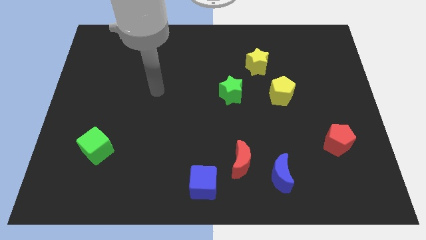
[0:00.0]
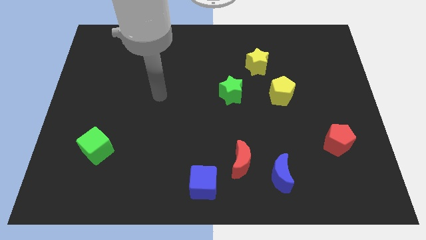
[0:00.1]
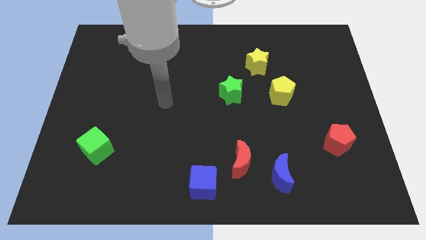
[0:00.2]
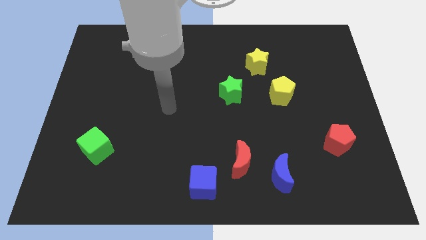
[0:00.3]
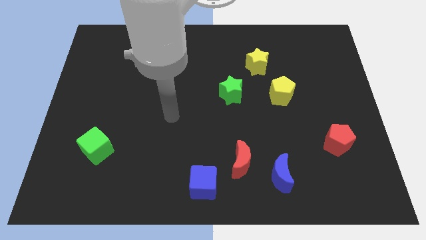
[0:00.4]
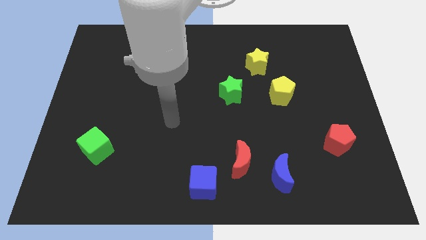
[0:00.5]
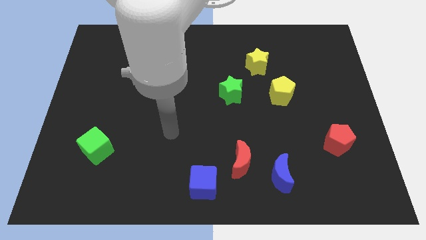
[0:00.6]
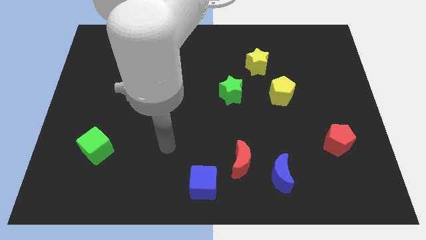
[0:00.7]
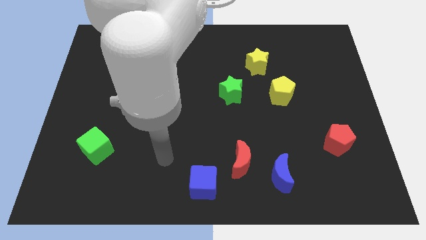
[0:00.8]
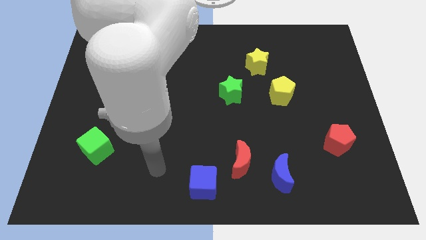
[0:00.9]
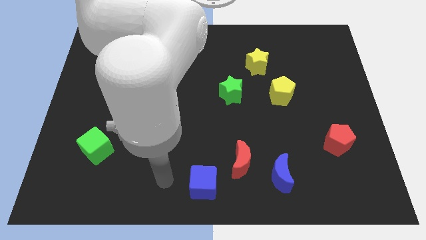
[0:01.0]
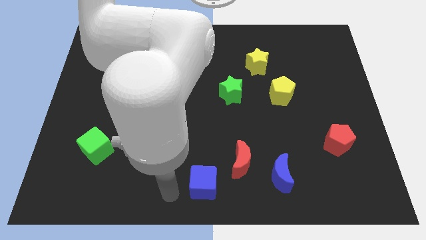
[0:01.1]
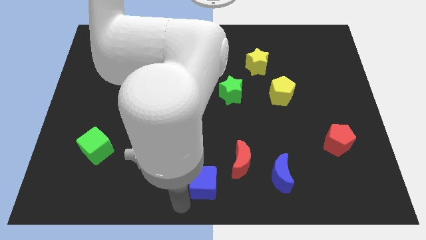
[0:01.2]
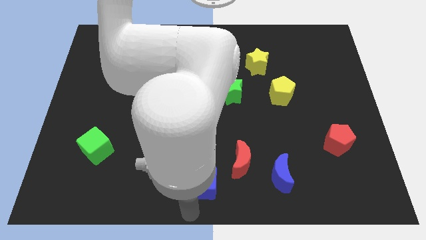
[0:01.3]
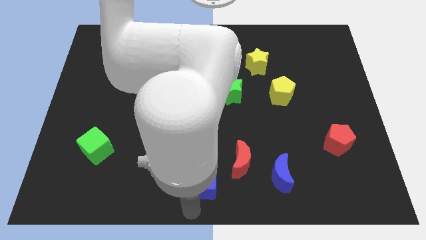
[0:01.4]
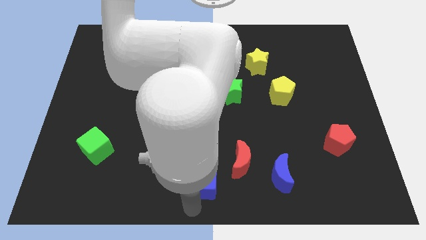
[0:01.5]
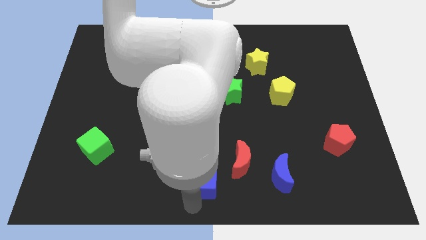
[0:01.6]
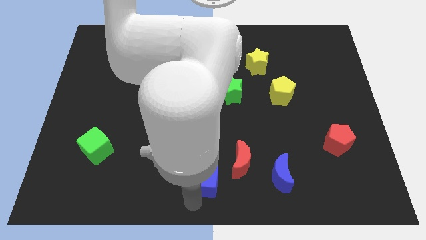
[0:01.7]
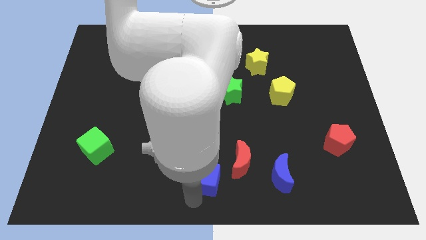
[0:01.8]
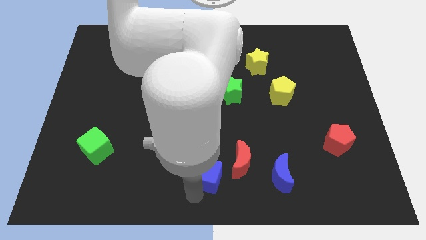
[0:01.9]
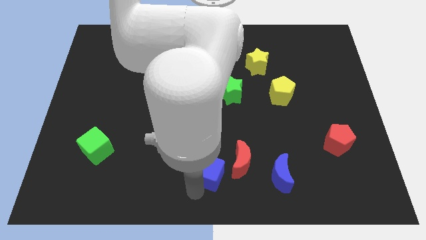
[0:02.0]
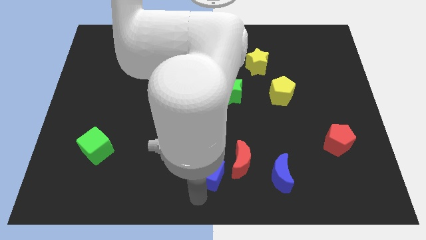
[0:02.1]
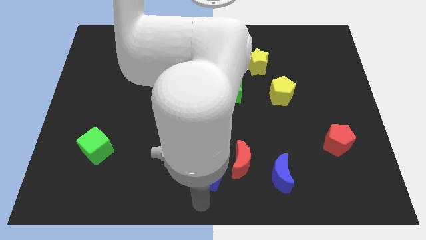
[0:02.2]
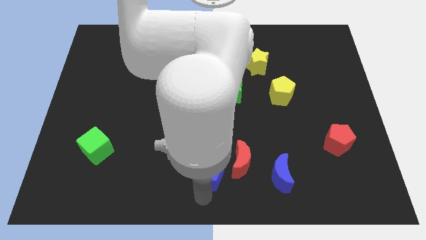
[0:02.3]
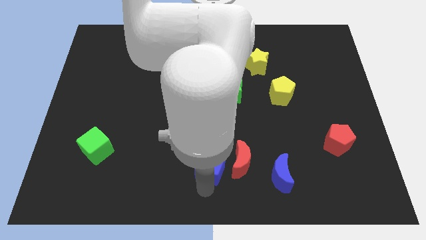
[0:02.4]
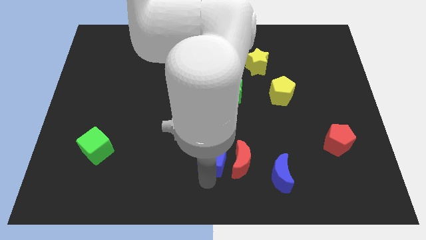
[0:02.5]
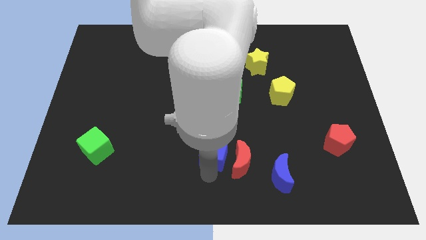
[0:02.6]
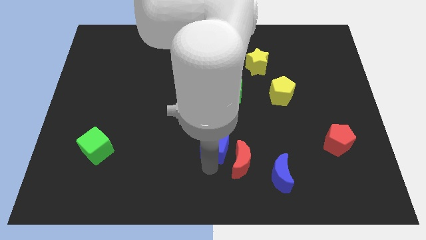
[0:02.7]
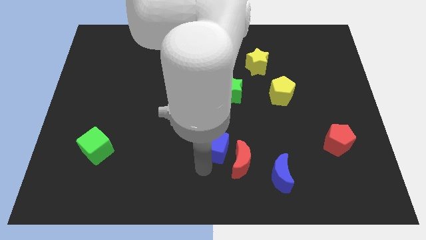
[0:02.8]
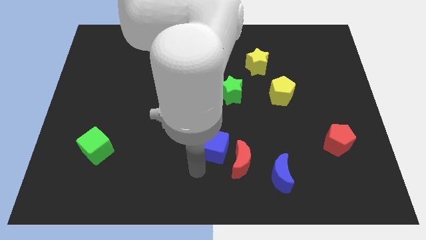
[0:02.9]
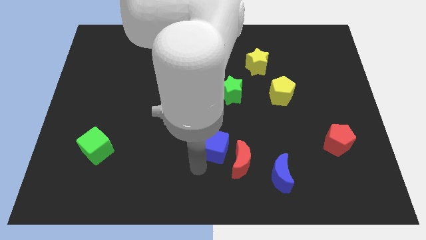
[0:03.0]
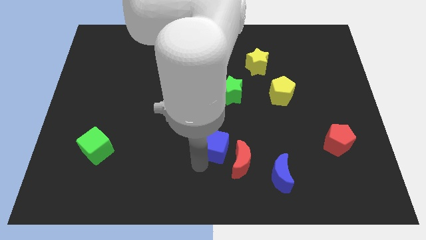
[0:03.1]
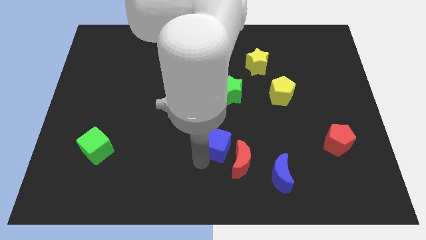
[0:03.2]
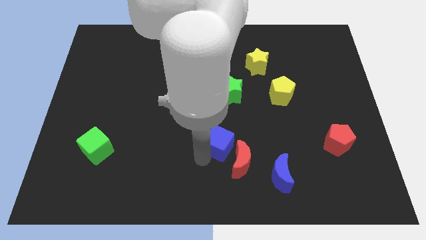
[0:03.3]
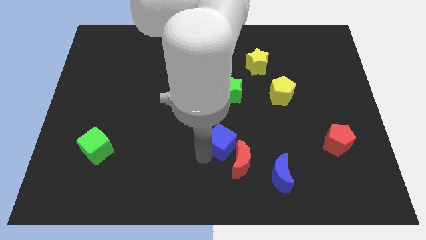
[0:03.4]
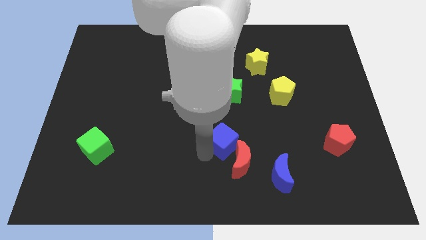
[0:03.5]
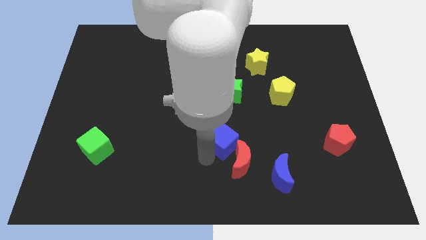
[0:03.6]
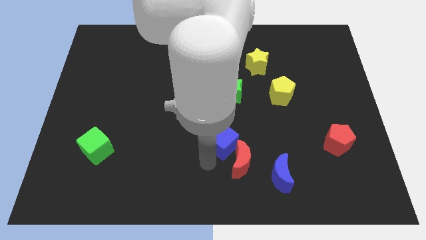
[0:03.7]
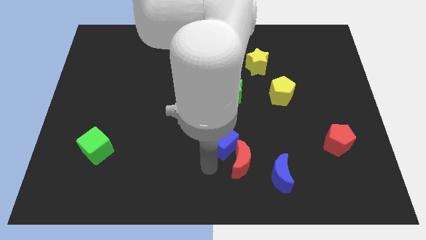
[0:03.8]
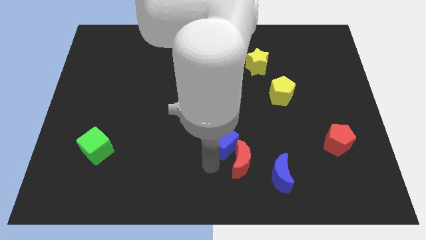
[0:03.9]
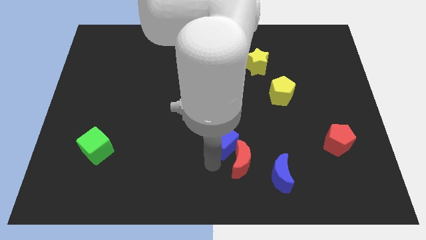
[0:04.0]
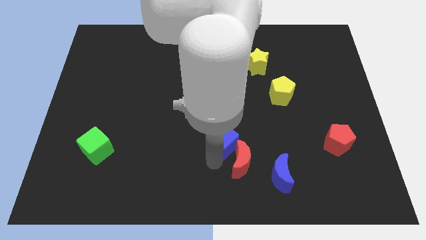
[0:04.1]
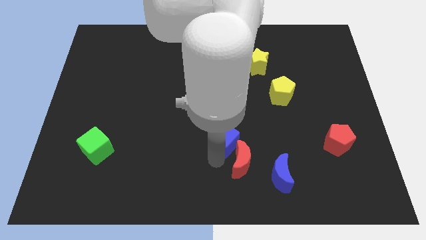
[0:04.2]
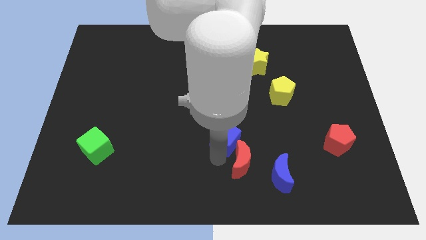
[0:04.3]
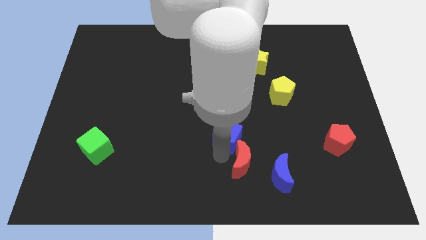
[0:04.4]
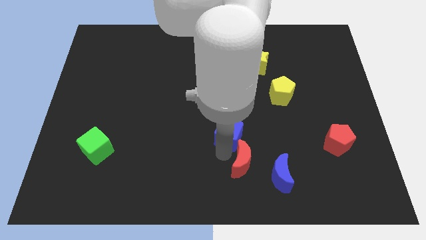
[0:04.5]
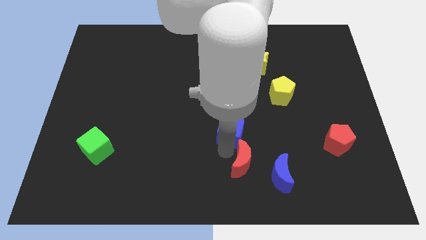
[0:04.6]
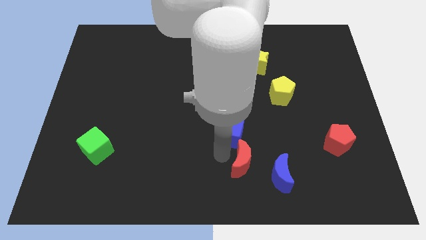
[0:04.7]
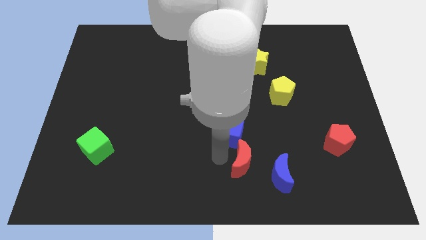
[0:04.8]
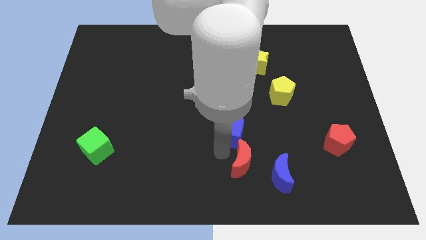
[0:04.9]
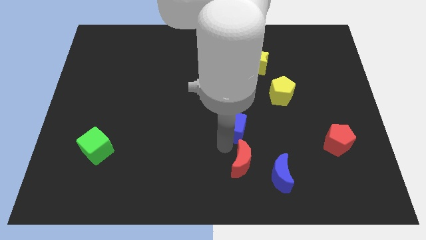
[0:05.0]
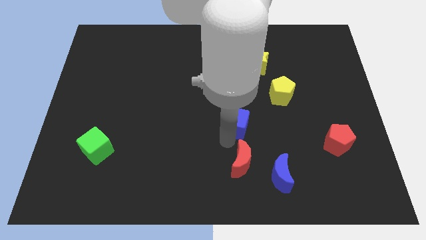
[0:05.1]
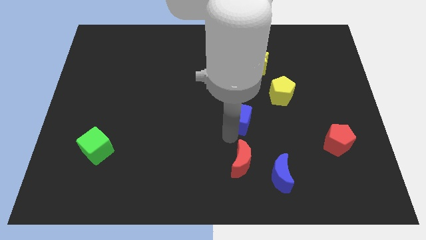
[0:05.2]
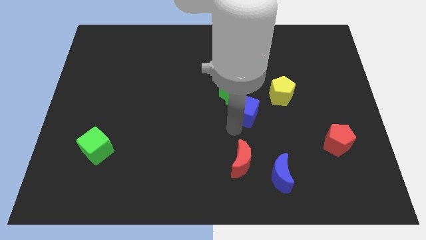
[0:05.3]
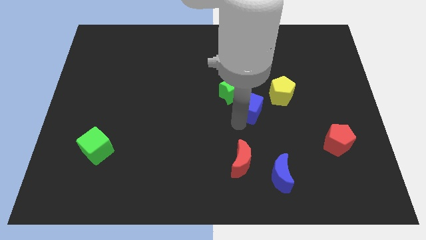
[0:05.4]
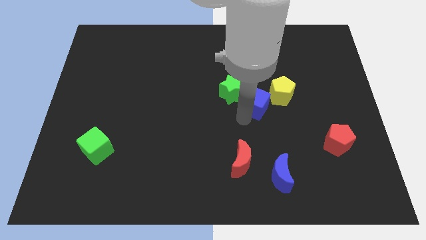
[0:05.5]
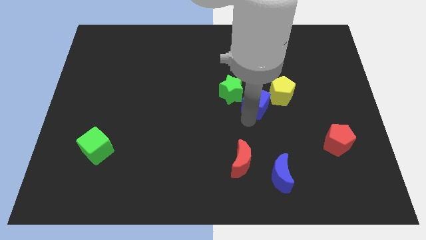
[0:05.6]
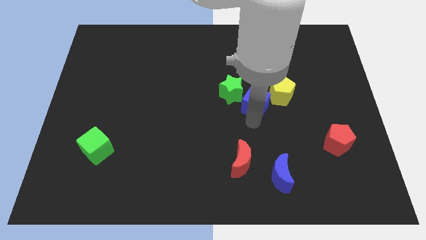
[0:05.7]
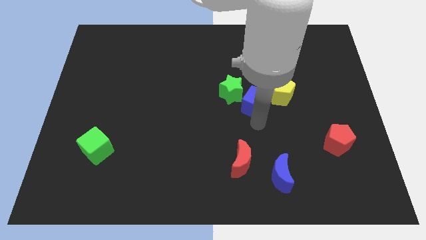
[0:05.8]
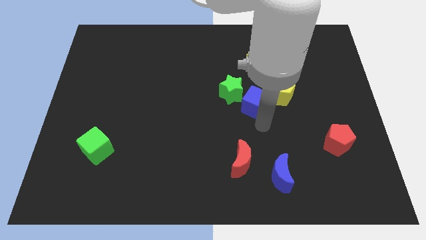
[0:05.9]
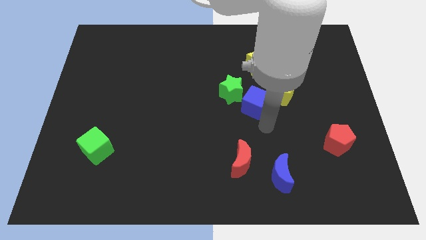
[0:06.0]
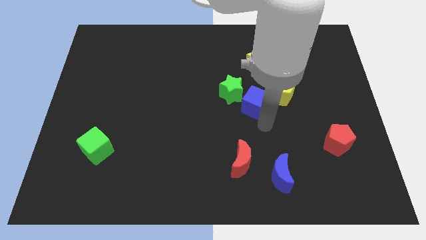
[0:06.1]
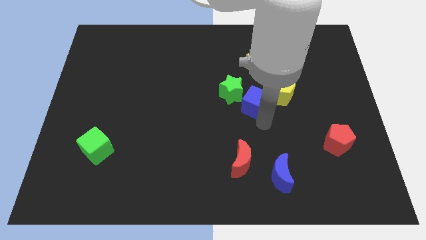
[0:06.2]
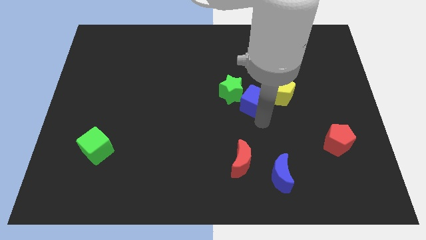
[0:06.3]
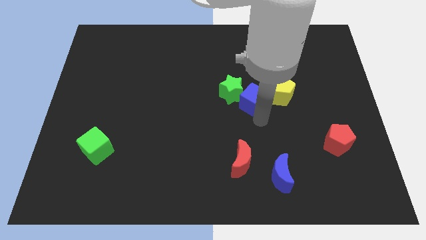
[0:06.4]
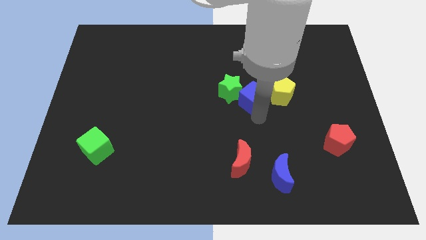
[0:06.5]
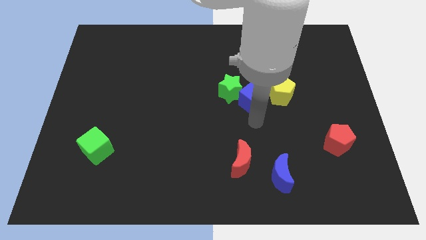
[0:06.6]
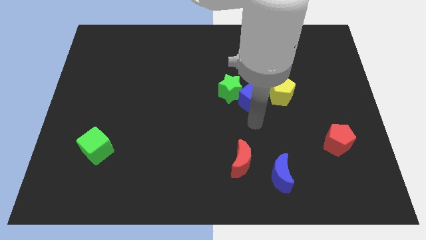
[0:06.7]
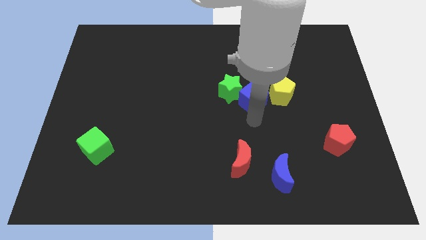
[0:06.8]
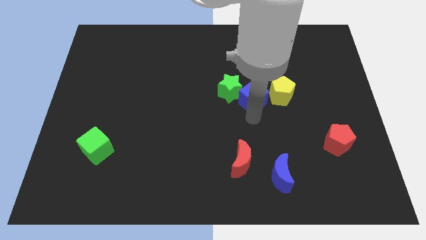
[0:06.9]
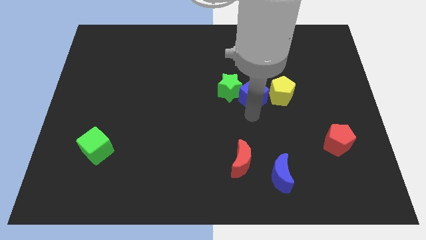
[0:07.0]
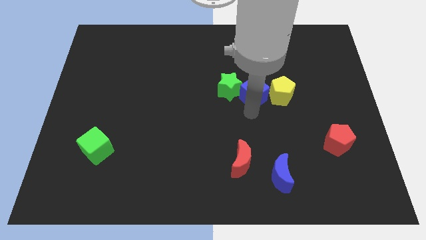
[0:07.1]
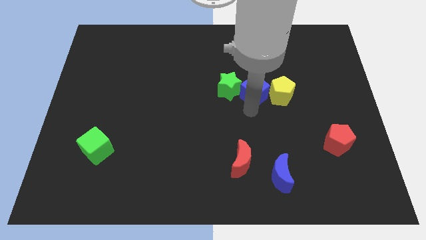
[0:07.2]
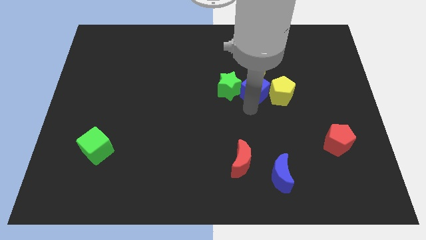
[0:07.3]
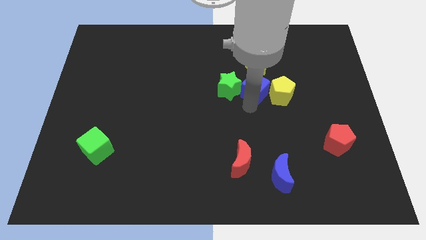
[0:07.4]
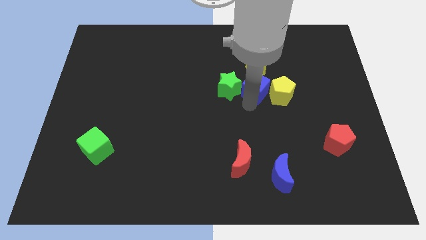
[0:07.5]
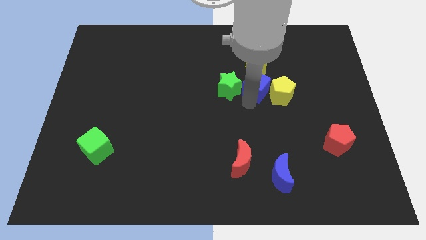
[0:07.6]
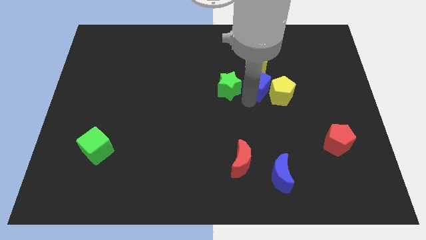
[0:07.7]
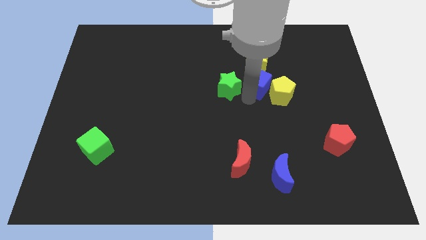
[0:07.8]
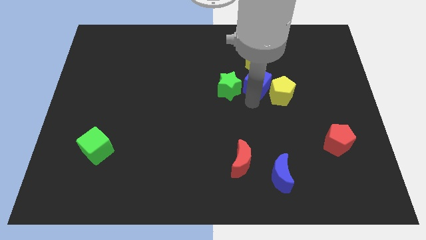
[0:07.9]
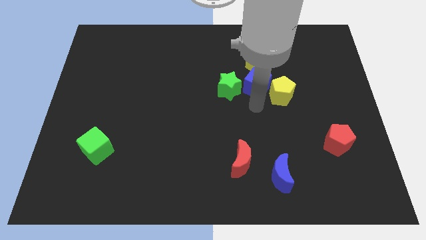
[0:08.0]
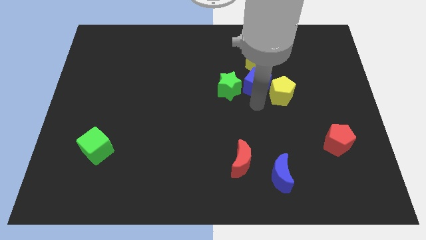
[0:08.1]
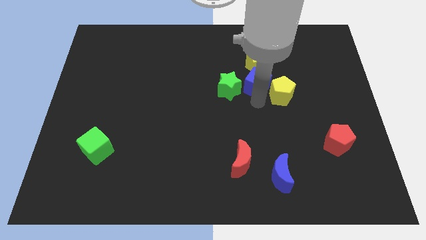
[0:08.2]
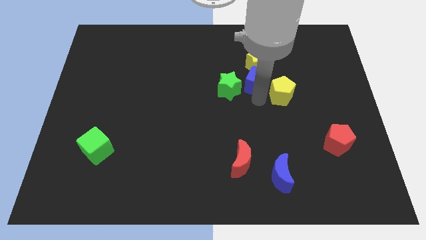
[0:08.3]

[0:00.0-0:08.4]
push the blue cube next to the yellow star
